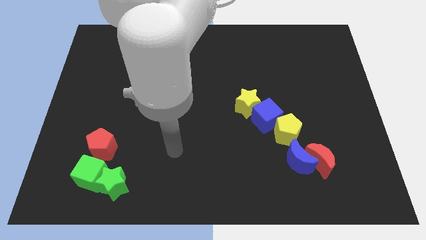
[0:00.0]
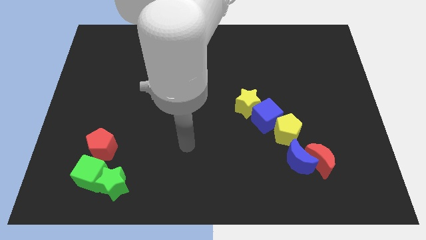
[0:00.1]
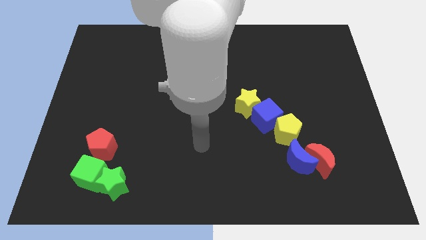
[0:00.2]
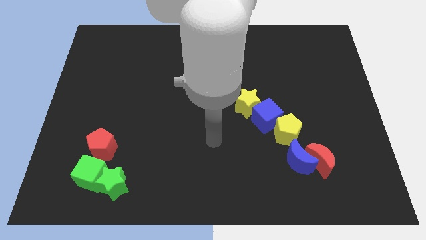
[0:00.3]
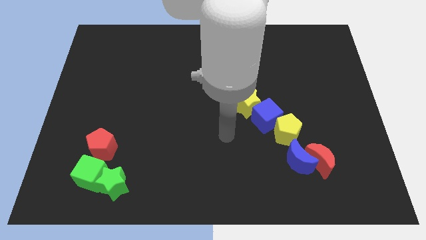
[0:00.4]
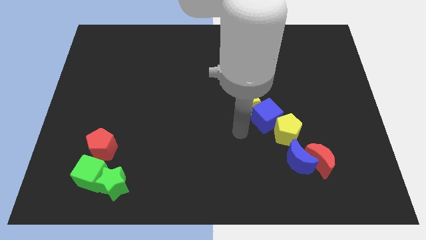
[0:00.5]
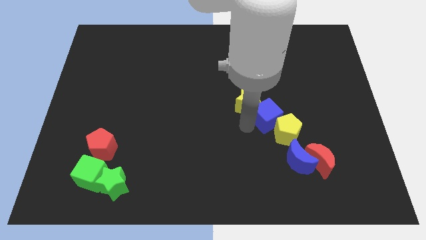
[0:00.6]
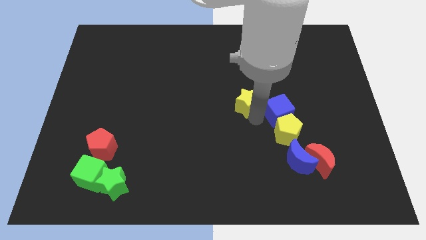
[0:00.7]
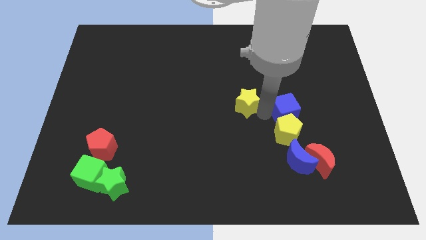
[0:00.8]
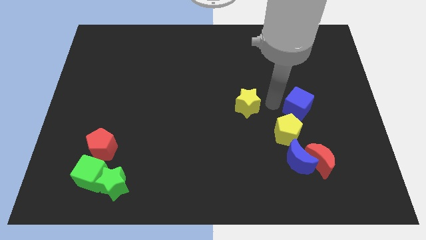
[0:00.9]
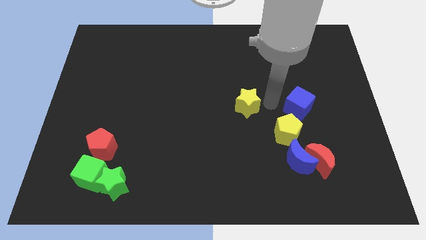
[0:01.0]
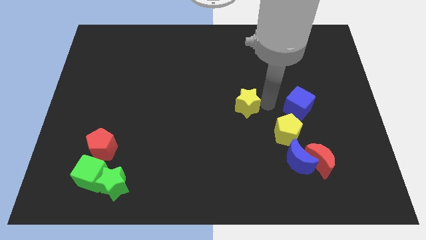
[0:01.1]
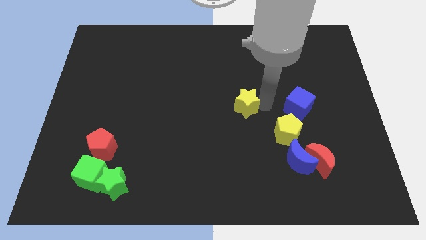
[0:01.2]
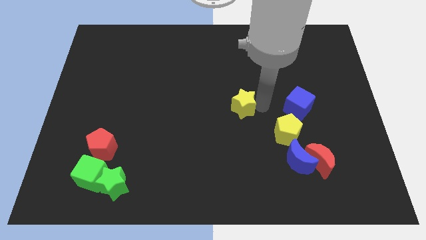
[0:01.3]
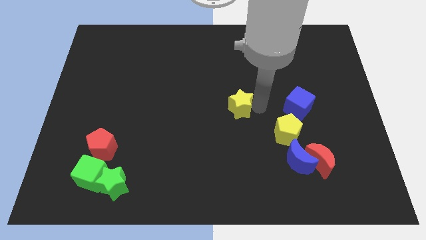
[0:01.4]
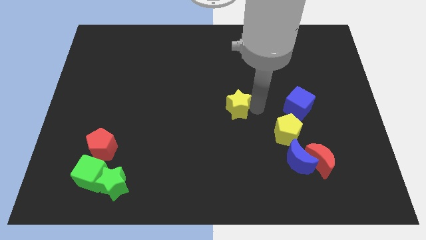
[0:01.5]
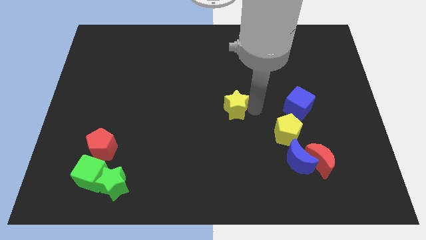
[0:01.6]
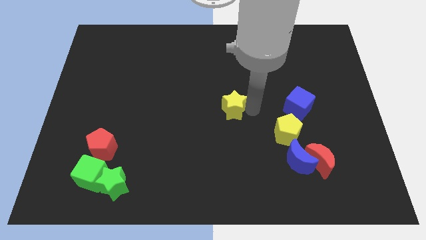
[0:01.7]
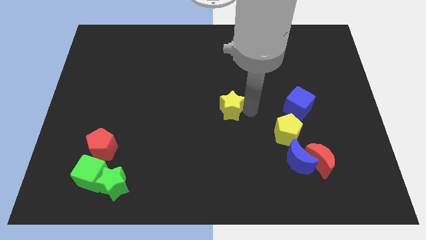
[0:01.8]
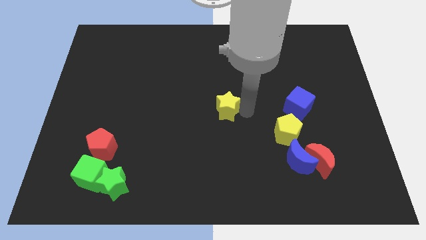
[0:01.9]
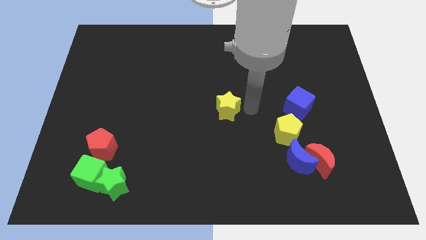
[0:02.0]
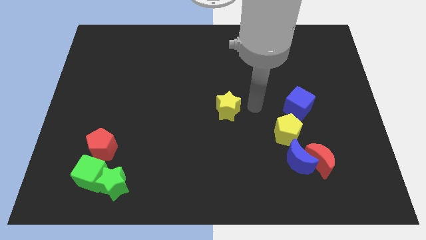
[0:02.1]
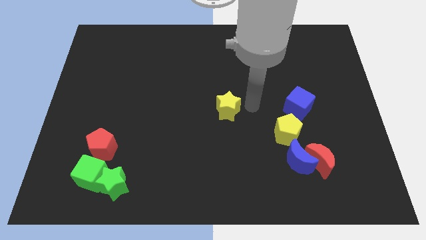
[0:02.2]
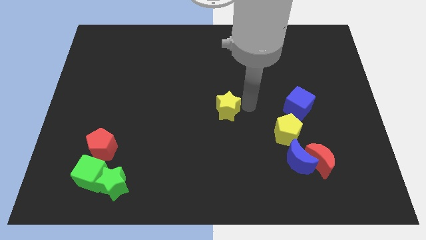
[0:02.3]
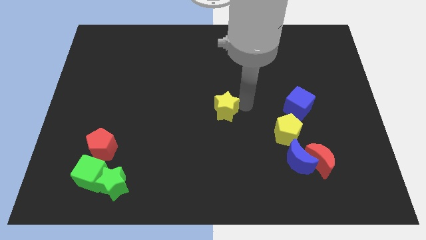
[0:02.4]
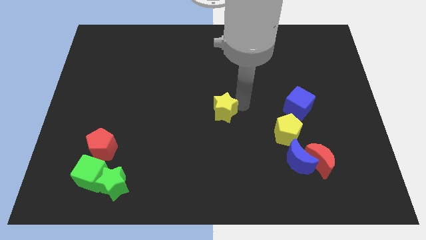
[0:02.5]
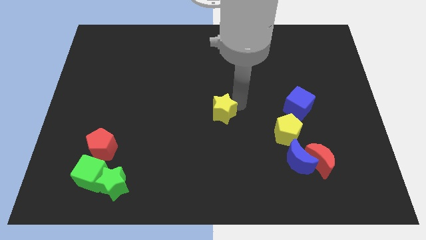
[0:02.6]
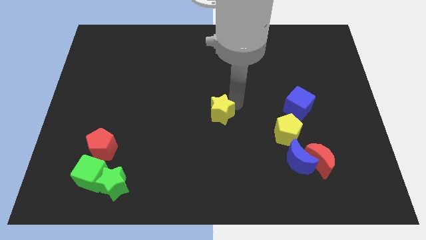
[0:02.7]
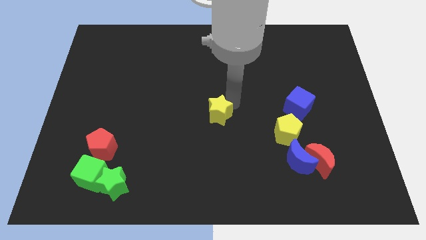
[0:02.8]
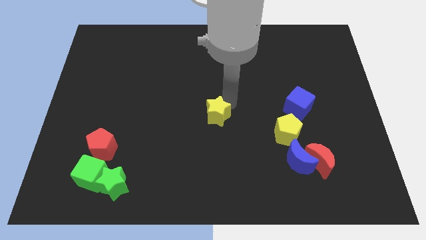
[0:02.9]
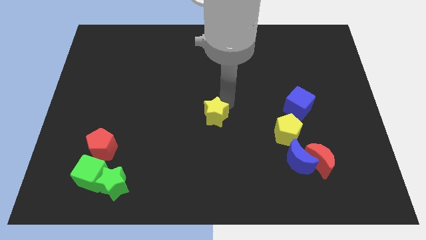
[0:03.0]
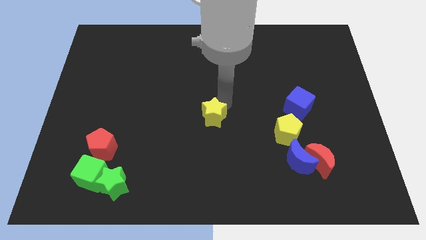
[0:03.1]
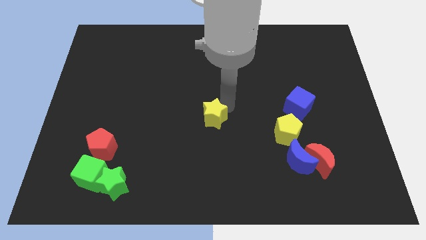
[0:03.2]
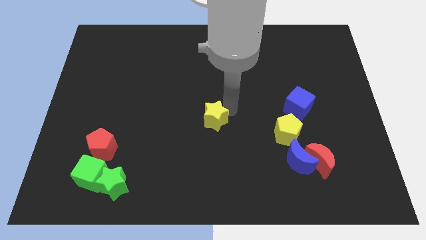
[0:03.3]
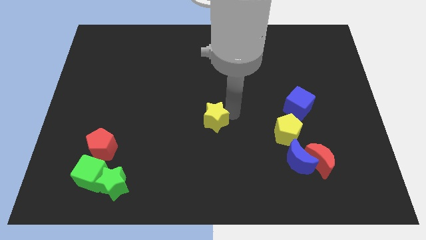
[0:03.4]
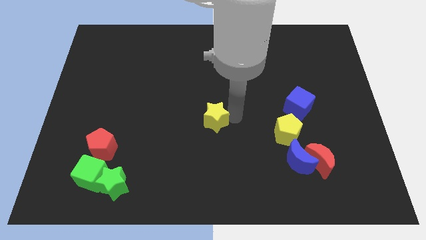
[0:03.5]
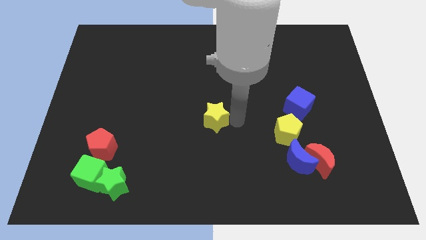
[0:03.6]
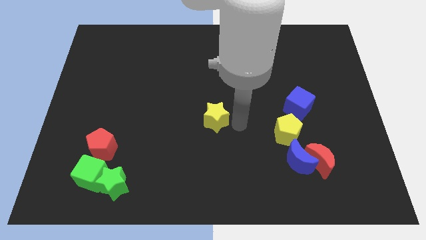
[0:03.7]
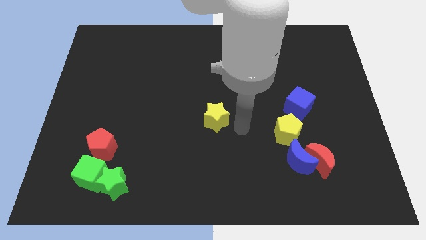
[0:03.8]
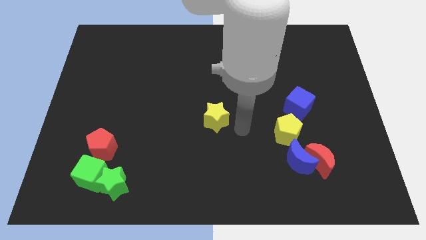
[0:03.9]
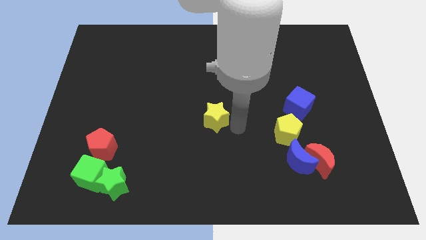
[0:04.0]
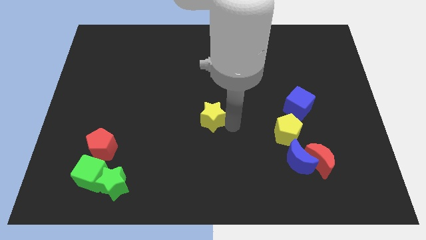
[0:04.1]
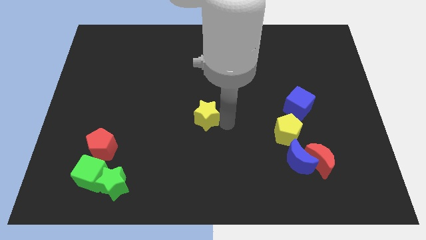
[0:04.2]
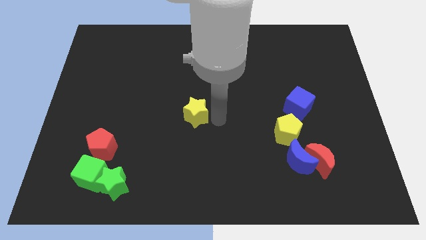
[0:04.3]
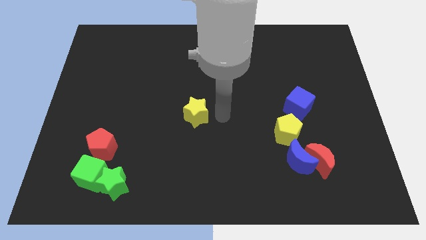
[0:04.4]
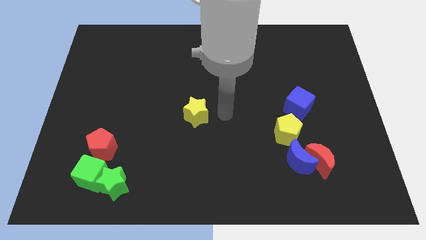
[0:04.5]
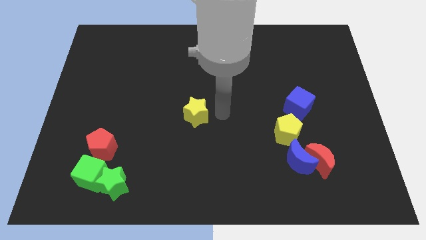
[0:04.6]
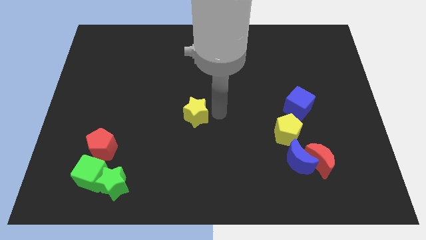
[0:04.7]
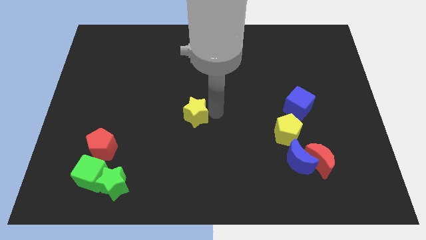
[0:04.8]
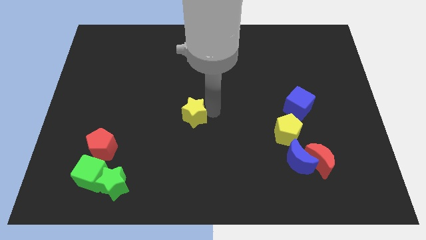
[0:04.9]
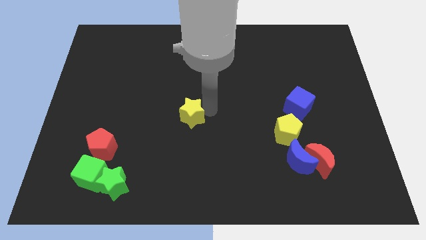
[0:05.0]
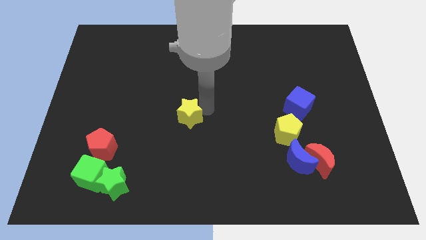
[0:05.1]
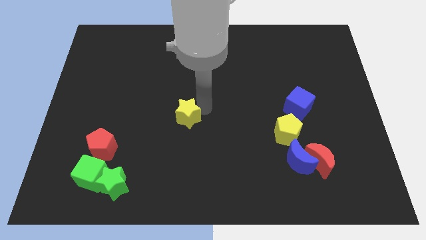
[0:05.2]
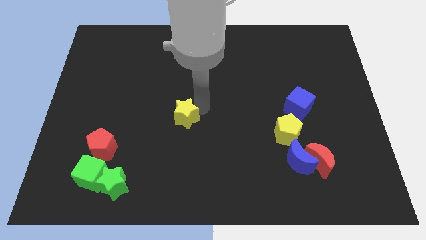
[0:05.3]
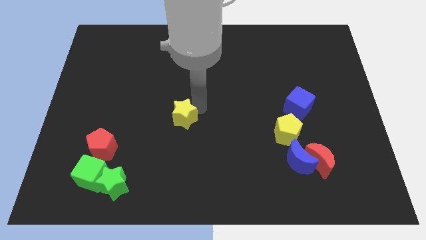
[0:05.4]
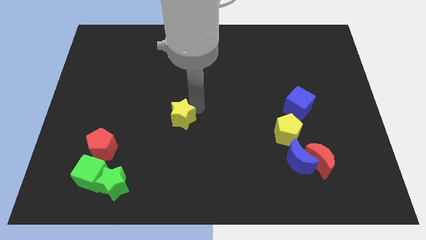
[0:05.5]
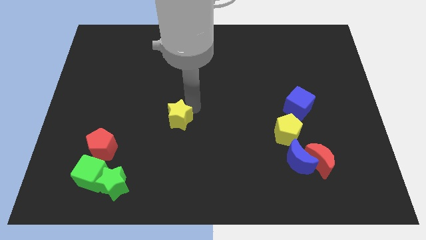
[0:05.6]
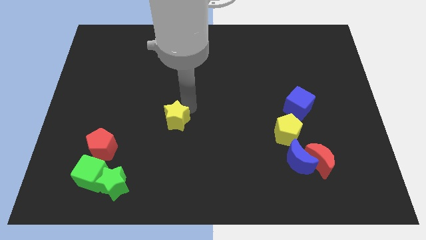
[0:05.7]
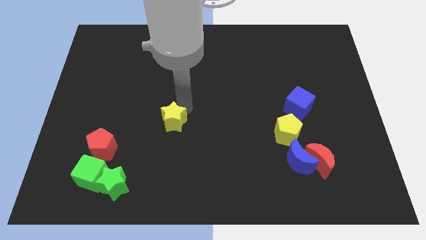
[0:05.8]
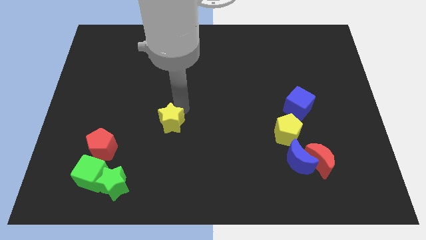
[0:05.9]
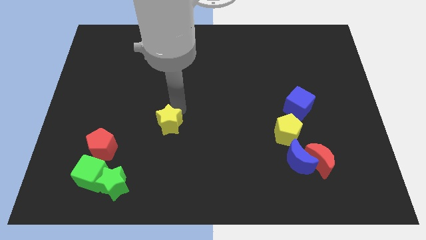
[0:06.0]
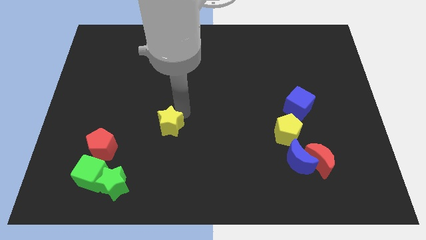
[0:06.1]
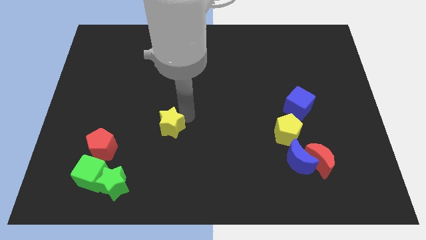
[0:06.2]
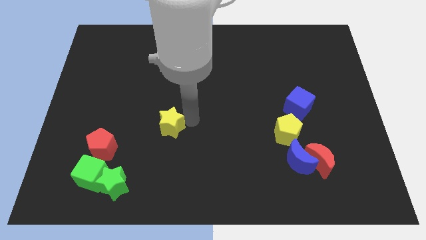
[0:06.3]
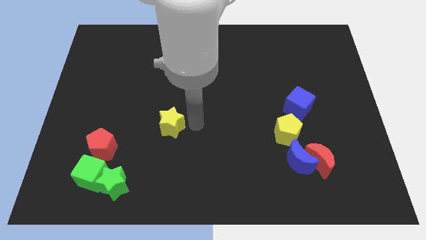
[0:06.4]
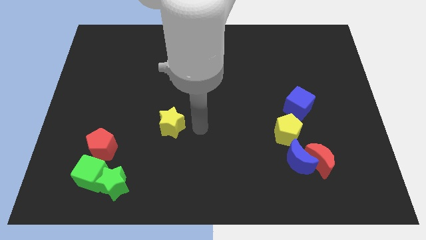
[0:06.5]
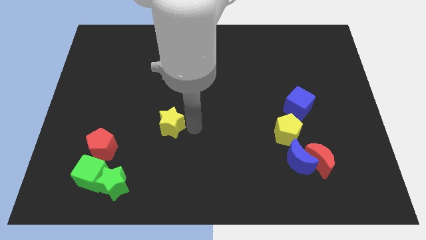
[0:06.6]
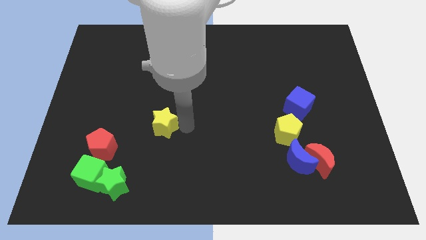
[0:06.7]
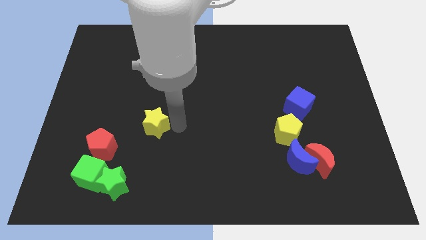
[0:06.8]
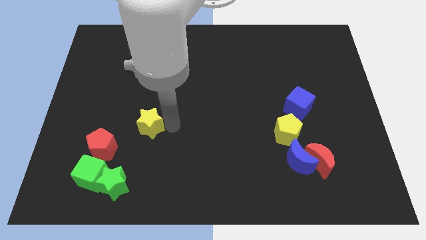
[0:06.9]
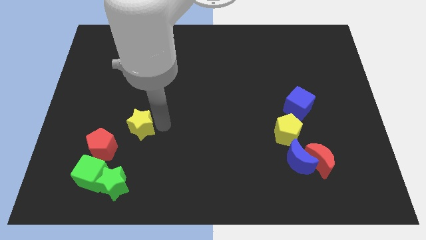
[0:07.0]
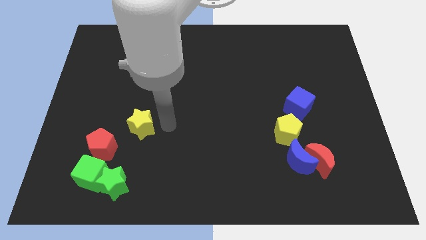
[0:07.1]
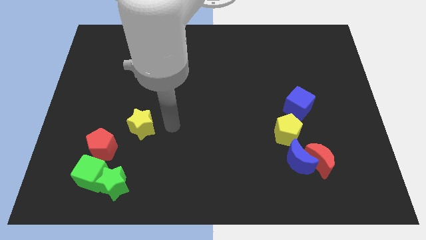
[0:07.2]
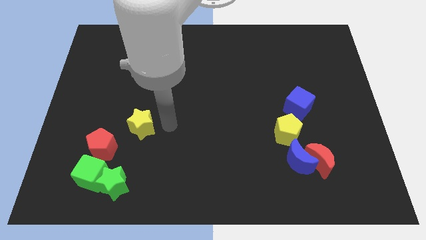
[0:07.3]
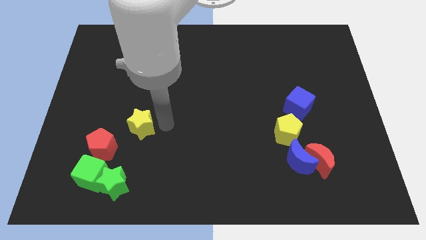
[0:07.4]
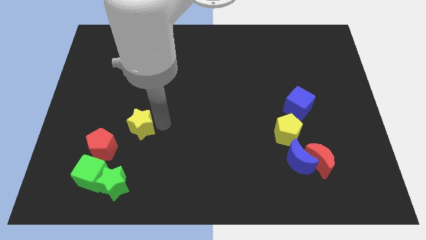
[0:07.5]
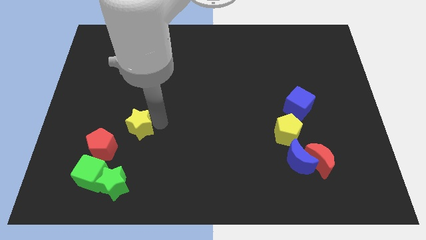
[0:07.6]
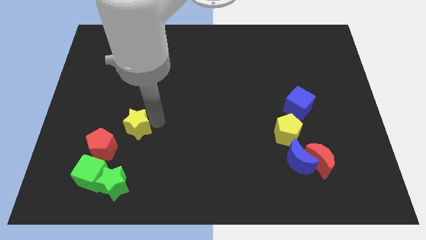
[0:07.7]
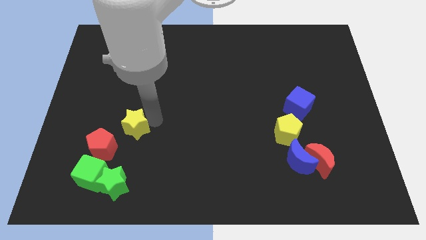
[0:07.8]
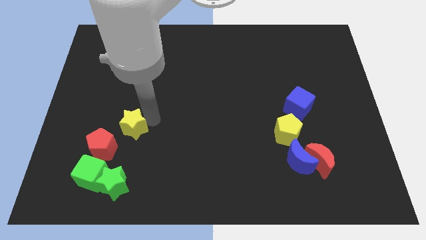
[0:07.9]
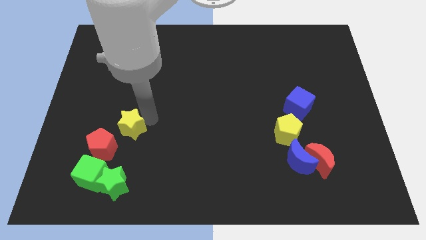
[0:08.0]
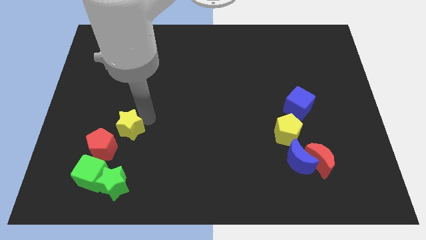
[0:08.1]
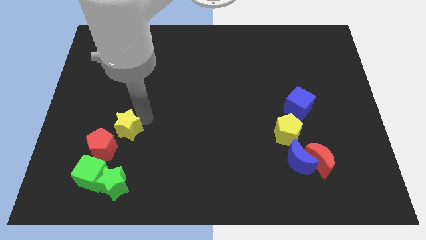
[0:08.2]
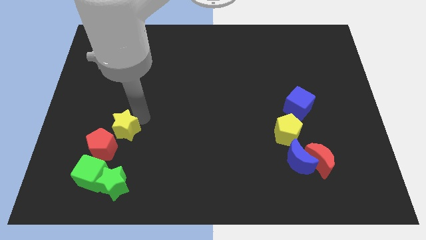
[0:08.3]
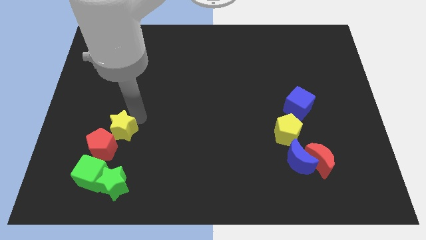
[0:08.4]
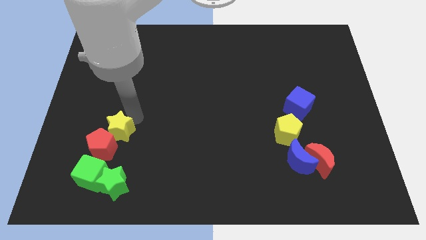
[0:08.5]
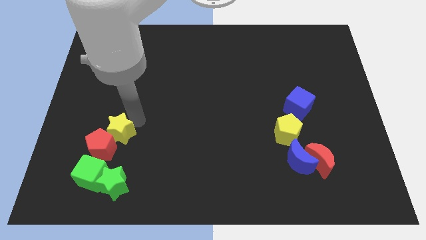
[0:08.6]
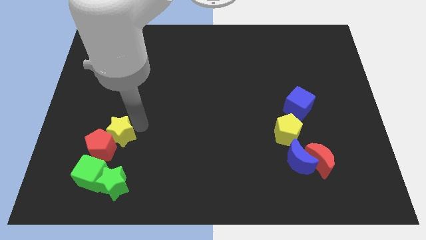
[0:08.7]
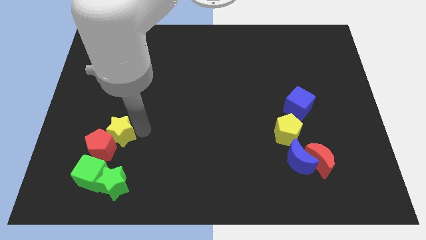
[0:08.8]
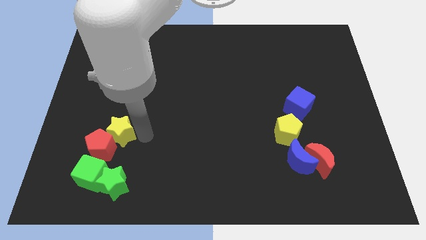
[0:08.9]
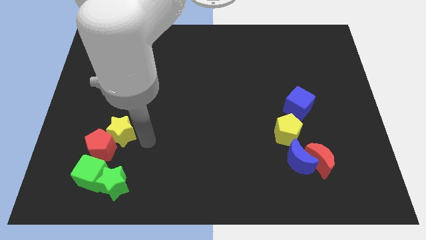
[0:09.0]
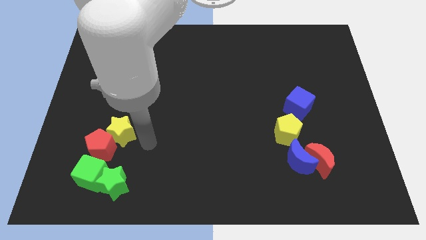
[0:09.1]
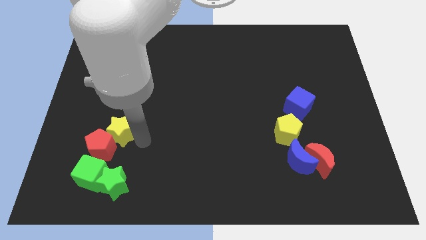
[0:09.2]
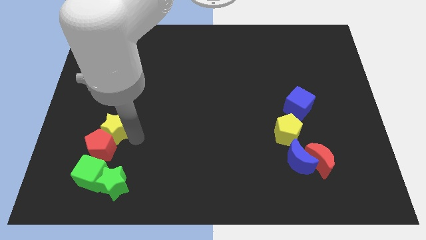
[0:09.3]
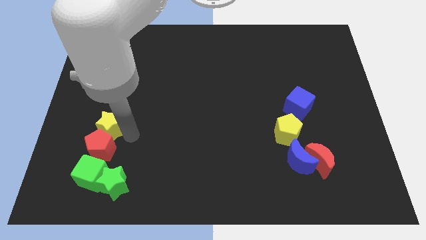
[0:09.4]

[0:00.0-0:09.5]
put the yellow star diagonally up and to the left of the red pentagon
